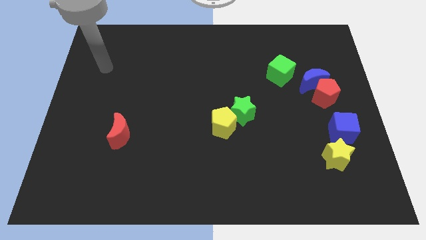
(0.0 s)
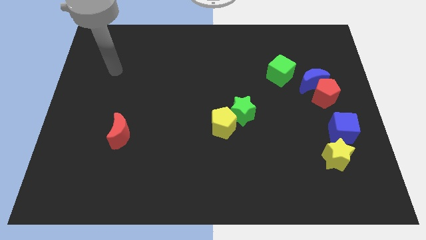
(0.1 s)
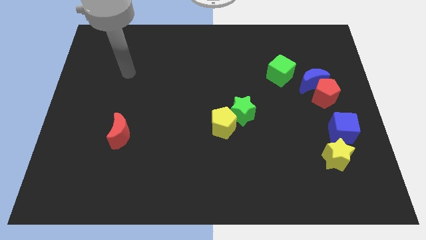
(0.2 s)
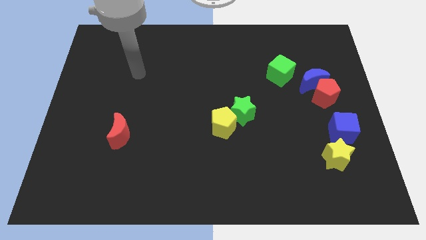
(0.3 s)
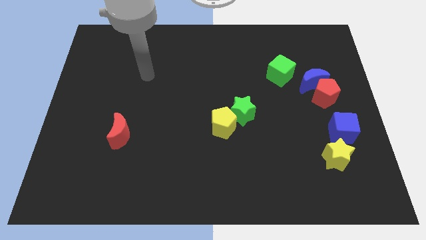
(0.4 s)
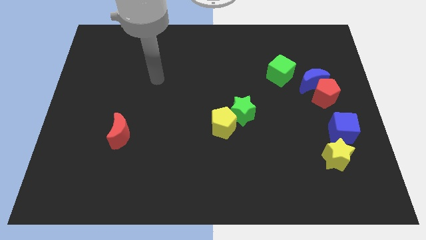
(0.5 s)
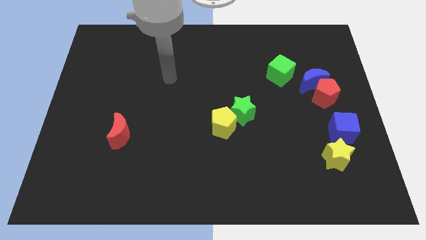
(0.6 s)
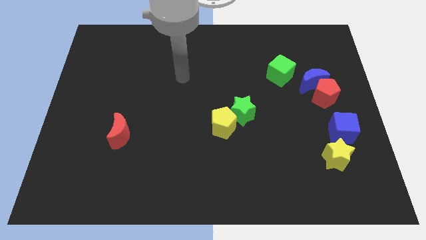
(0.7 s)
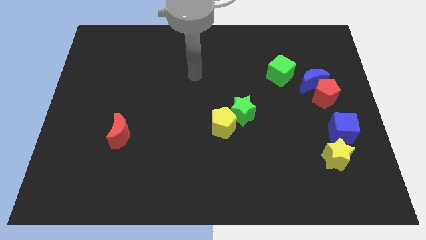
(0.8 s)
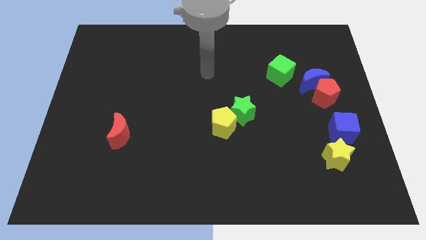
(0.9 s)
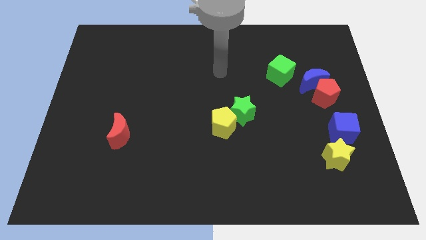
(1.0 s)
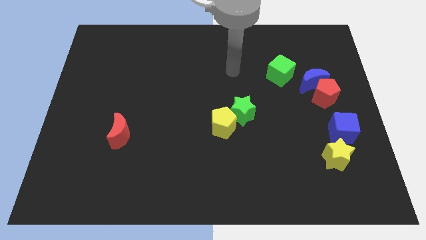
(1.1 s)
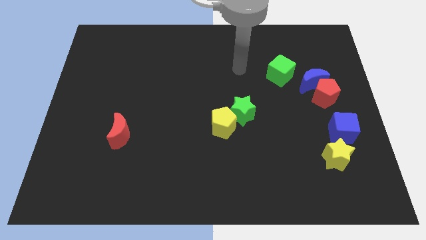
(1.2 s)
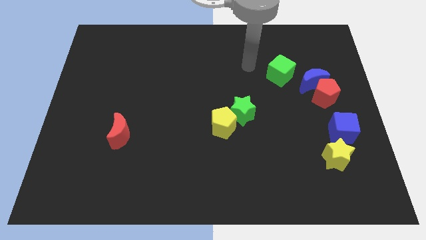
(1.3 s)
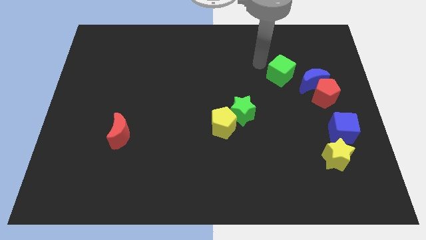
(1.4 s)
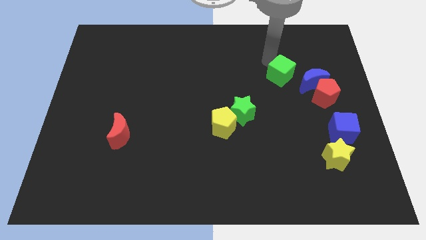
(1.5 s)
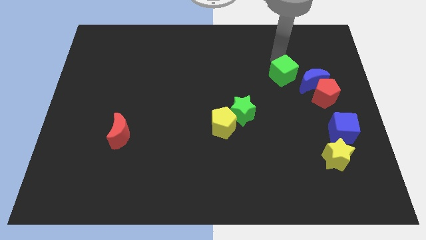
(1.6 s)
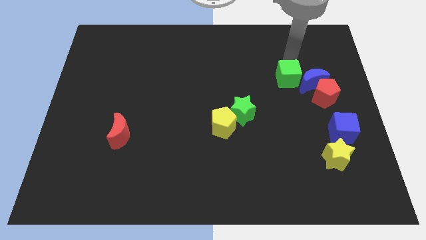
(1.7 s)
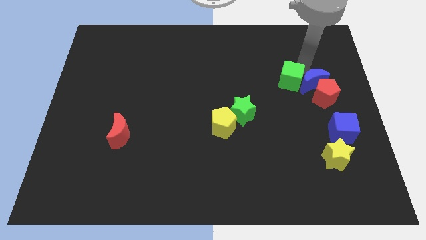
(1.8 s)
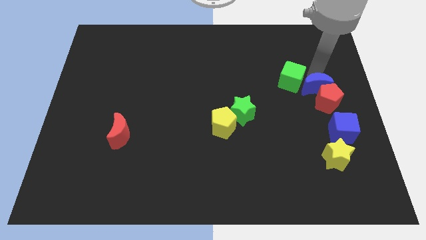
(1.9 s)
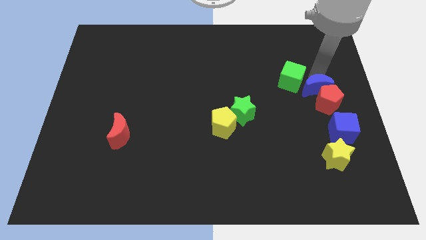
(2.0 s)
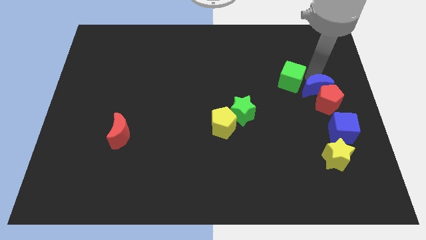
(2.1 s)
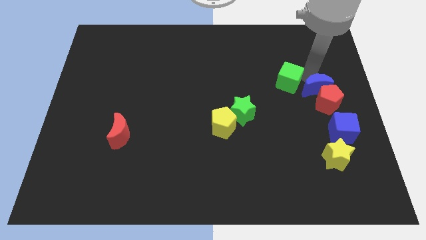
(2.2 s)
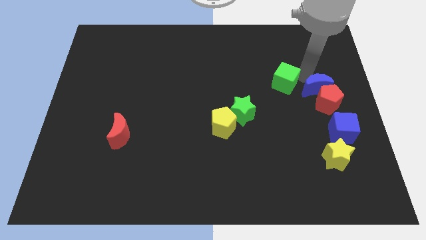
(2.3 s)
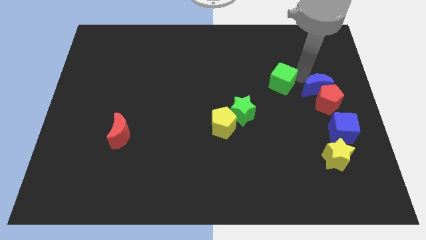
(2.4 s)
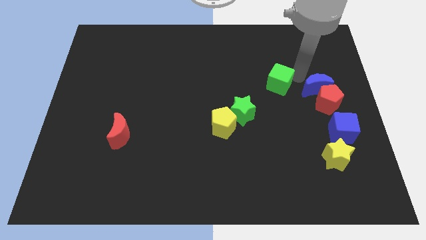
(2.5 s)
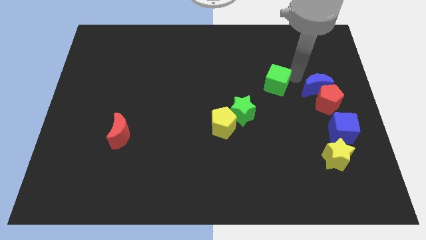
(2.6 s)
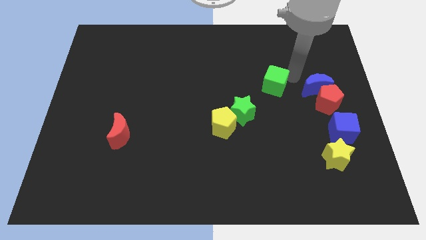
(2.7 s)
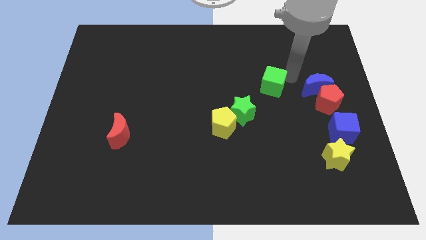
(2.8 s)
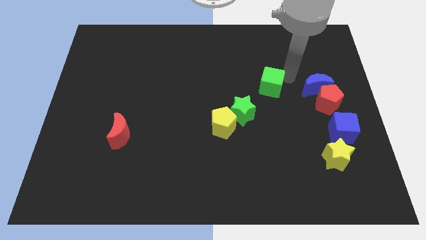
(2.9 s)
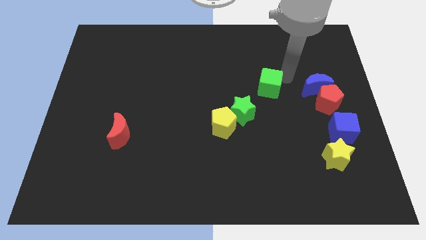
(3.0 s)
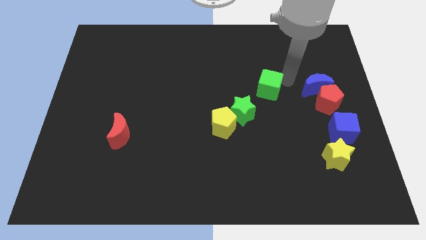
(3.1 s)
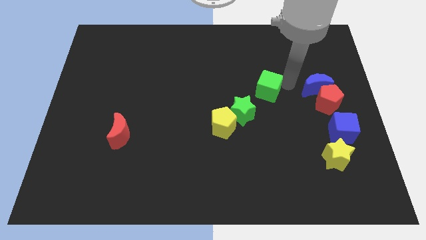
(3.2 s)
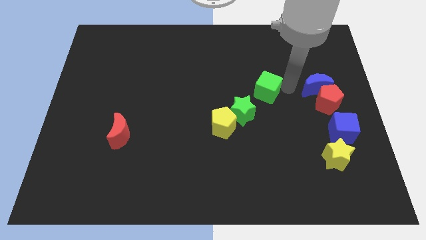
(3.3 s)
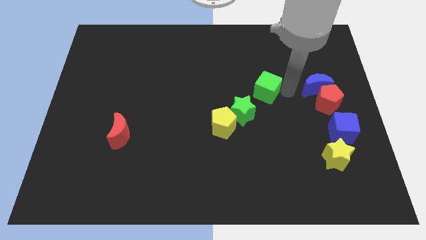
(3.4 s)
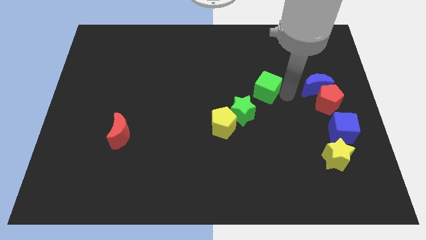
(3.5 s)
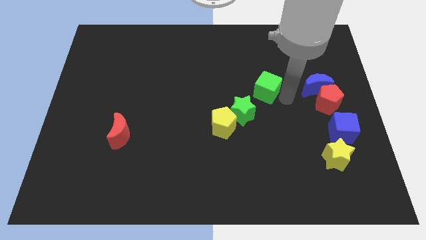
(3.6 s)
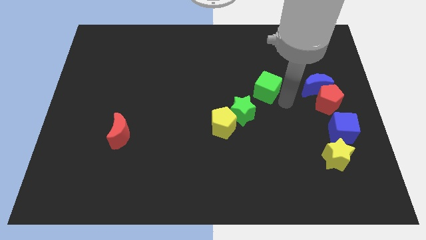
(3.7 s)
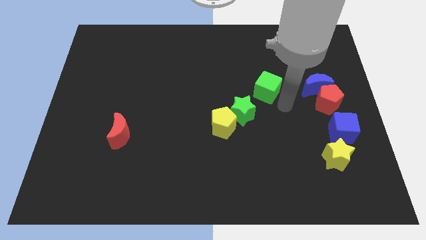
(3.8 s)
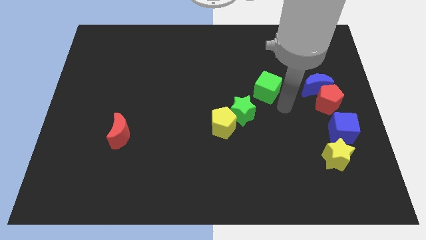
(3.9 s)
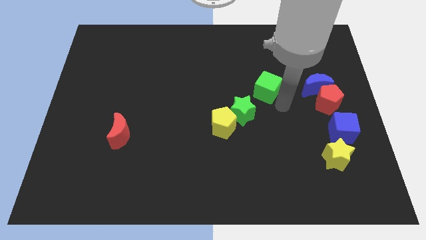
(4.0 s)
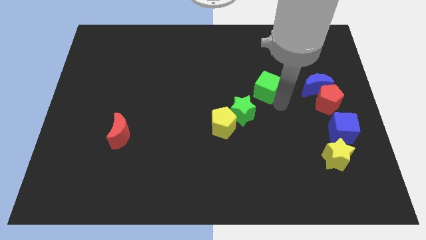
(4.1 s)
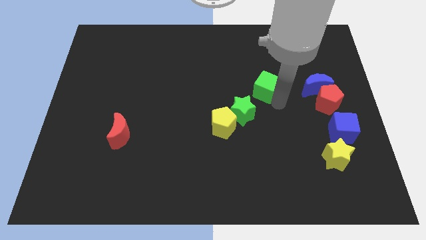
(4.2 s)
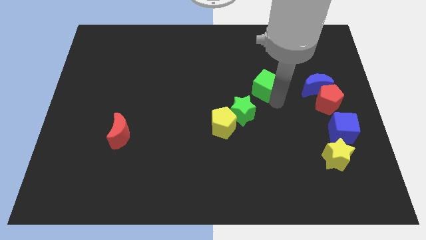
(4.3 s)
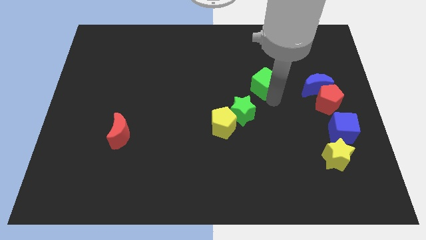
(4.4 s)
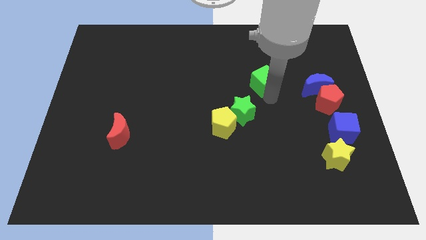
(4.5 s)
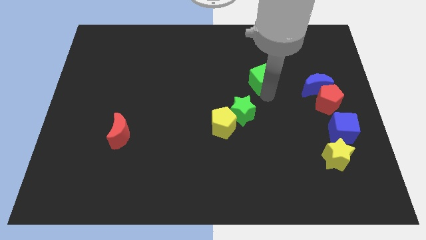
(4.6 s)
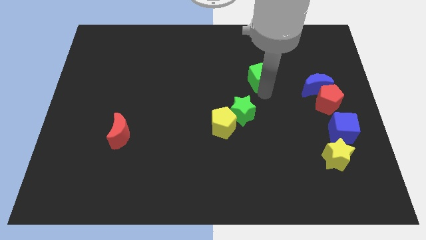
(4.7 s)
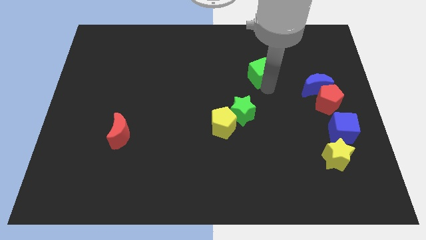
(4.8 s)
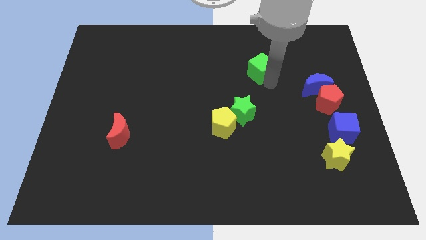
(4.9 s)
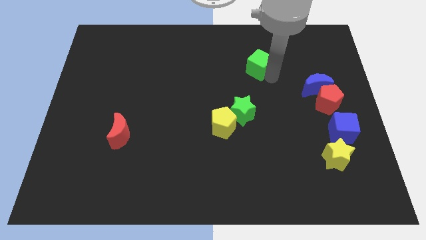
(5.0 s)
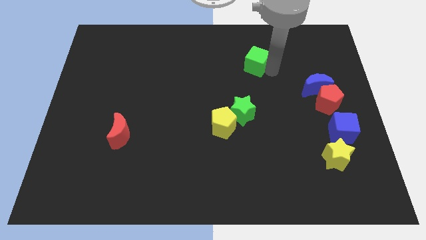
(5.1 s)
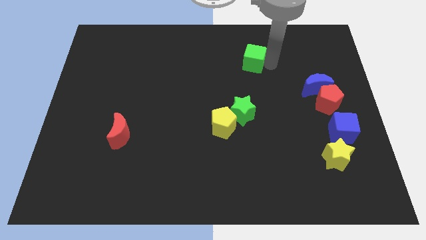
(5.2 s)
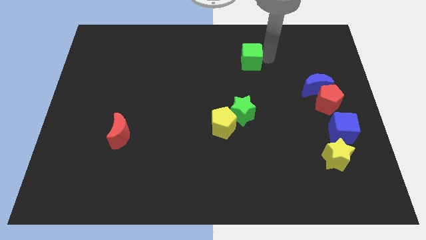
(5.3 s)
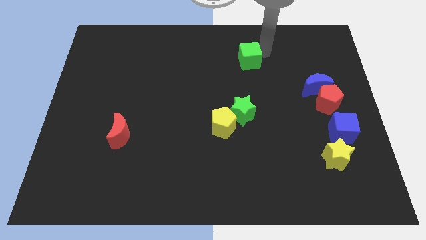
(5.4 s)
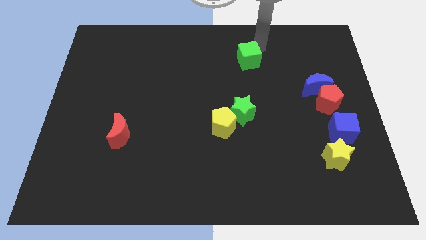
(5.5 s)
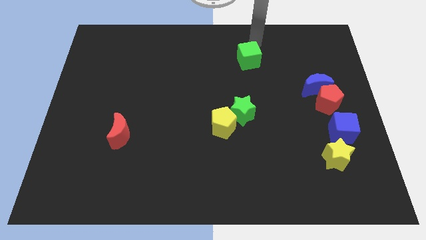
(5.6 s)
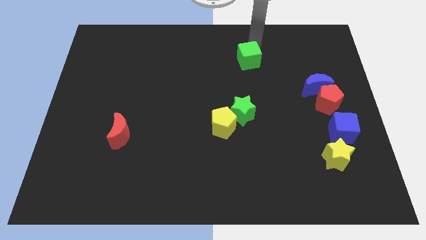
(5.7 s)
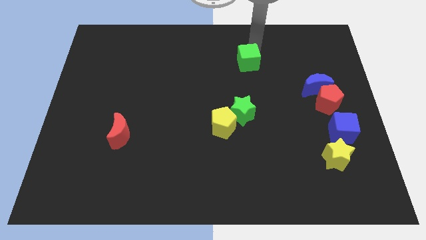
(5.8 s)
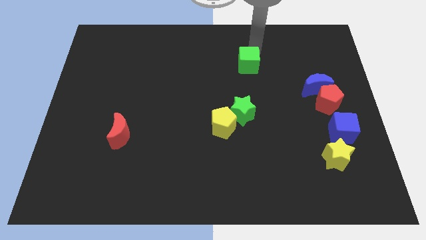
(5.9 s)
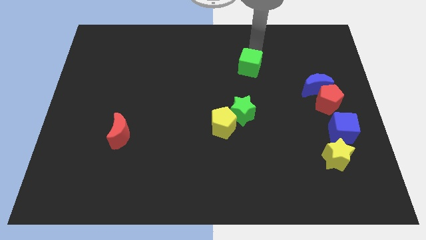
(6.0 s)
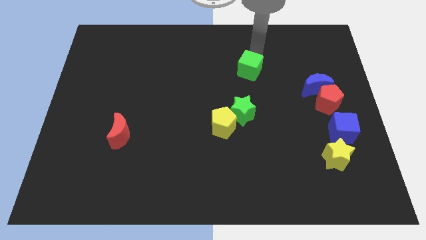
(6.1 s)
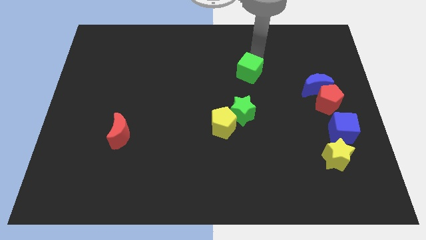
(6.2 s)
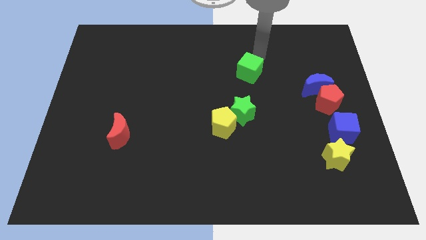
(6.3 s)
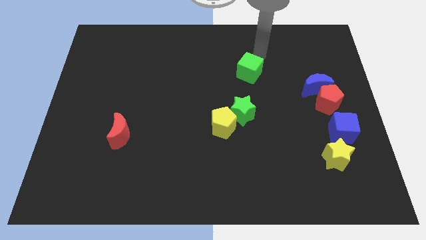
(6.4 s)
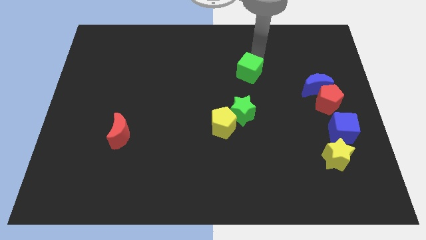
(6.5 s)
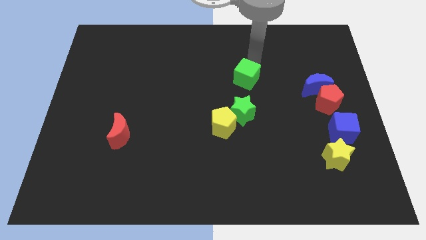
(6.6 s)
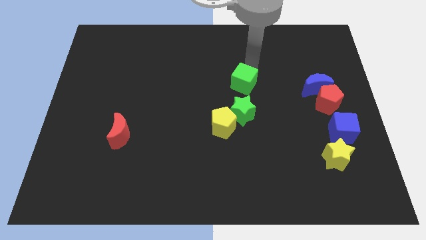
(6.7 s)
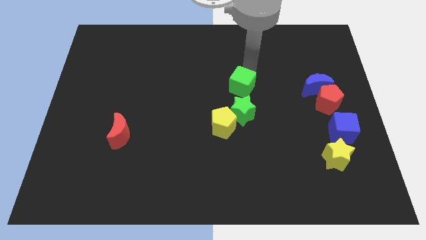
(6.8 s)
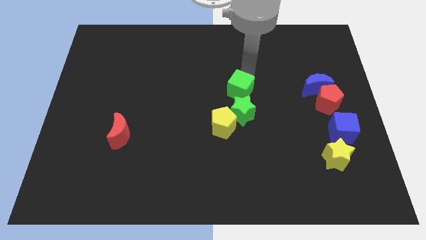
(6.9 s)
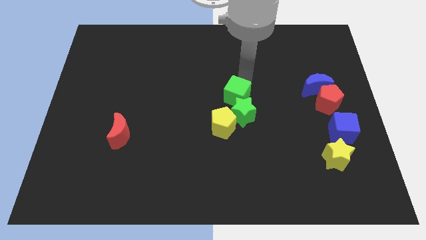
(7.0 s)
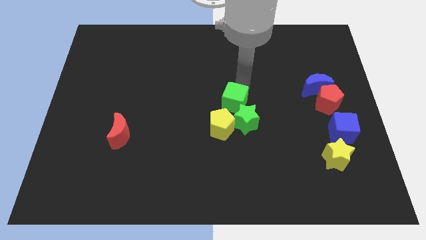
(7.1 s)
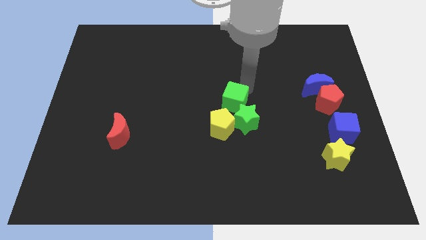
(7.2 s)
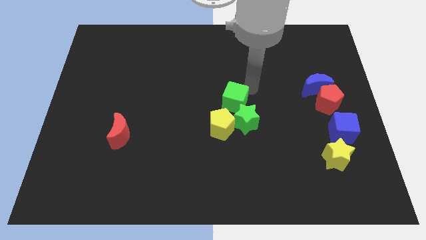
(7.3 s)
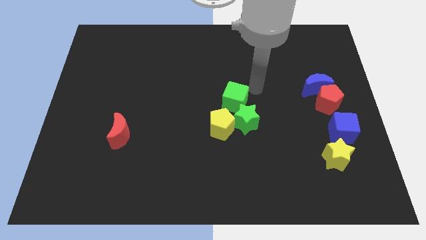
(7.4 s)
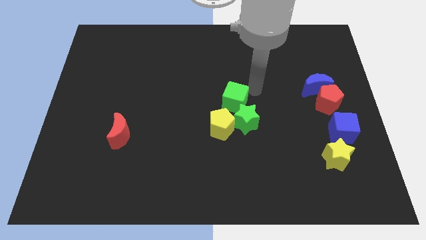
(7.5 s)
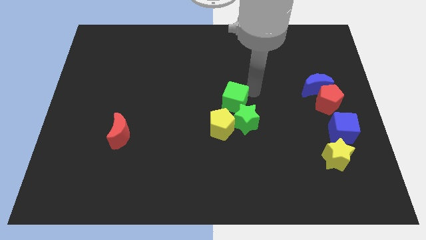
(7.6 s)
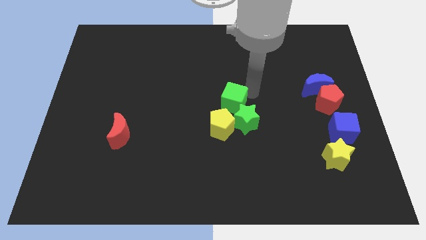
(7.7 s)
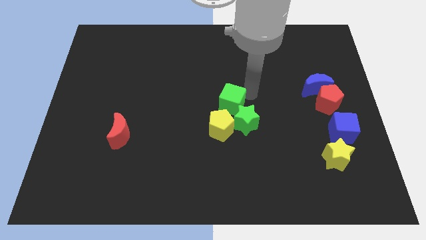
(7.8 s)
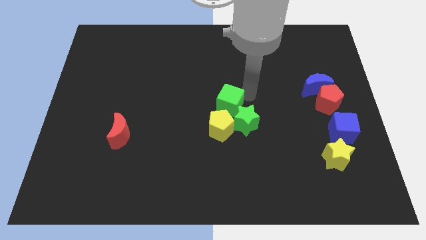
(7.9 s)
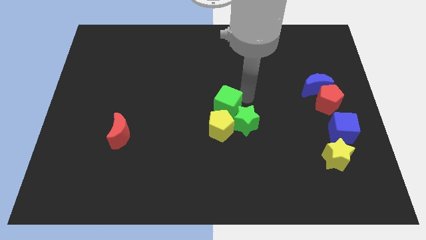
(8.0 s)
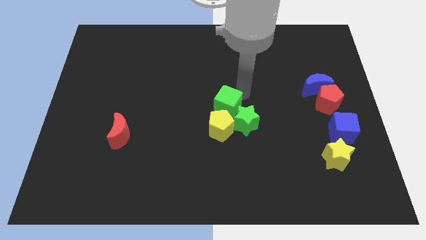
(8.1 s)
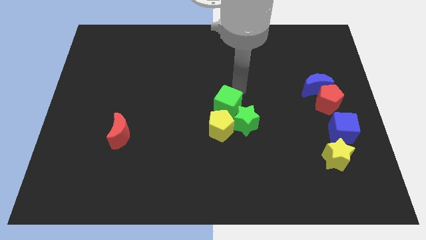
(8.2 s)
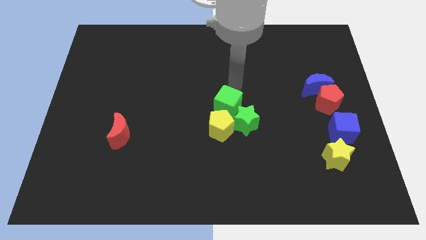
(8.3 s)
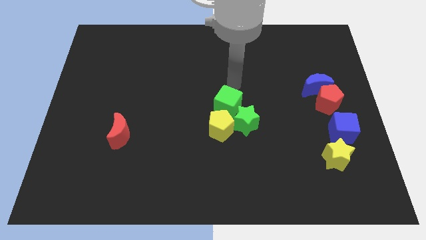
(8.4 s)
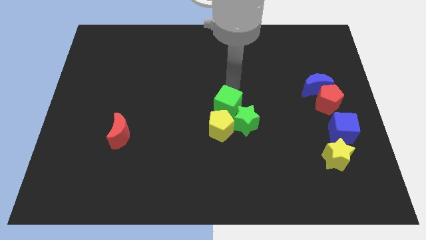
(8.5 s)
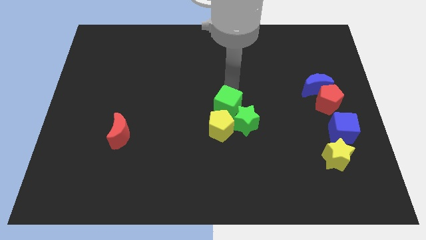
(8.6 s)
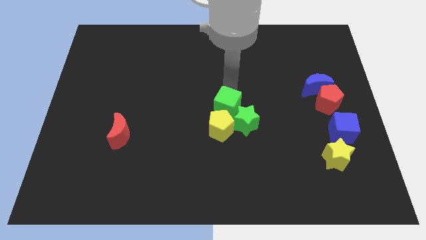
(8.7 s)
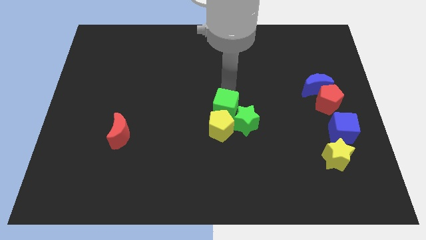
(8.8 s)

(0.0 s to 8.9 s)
put the green cube close to the yellow pentagon
